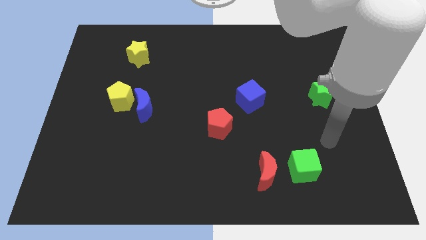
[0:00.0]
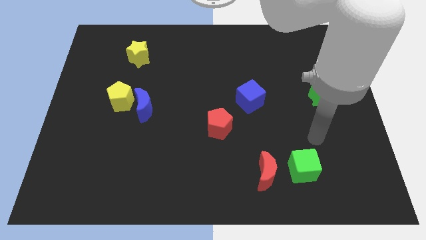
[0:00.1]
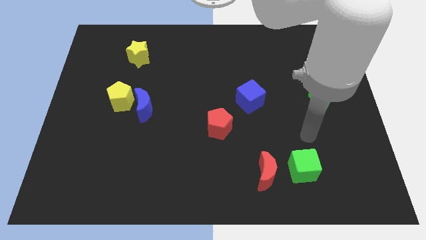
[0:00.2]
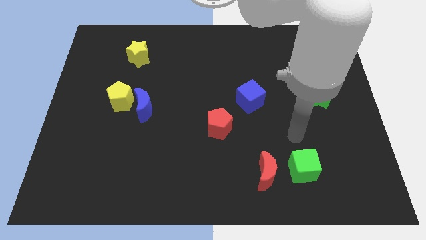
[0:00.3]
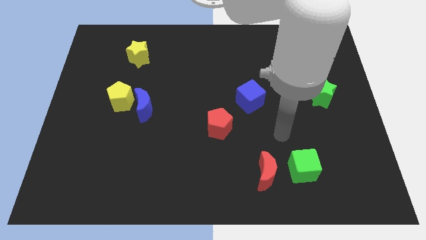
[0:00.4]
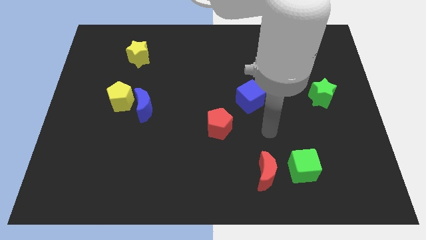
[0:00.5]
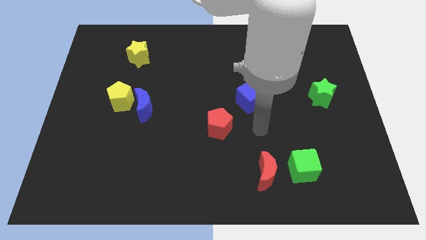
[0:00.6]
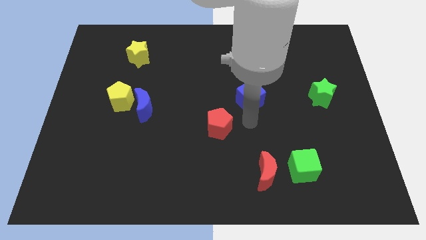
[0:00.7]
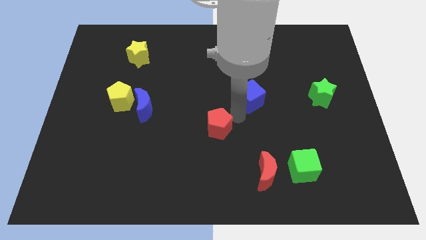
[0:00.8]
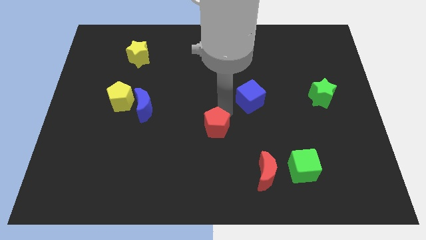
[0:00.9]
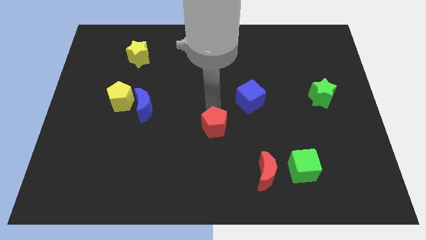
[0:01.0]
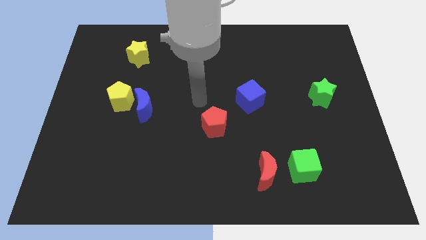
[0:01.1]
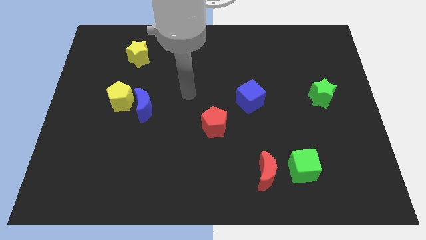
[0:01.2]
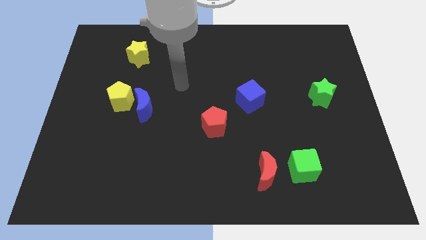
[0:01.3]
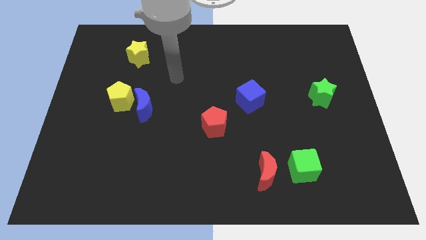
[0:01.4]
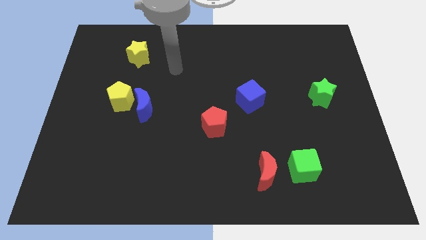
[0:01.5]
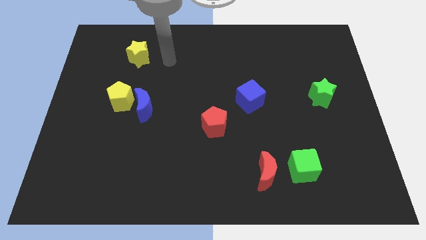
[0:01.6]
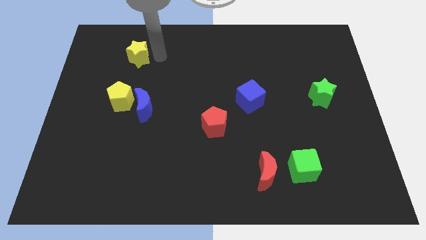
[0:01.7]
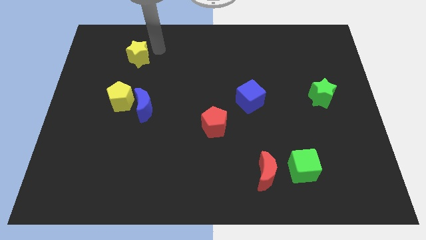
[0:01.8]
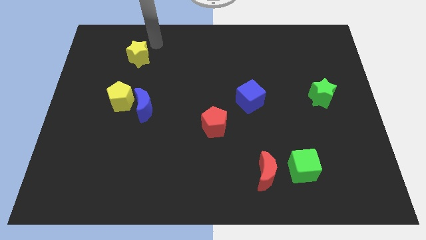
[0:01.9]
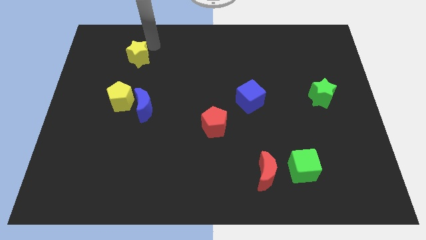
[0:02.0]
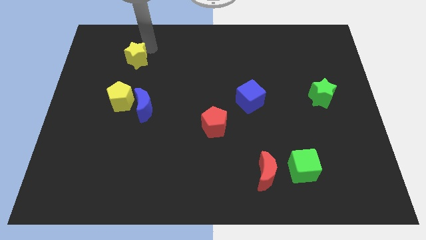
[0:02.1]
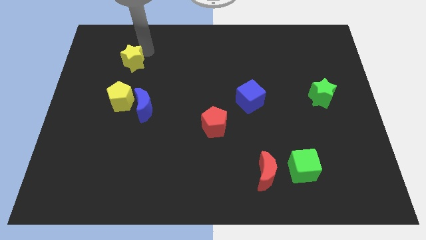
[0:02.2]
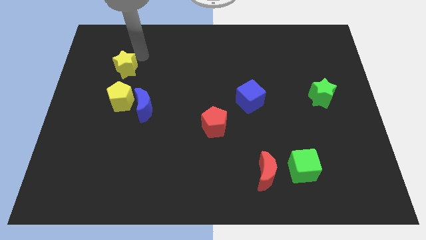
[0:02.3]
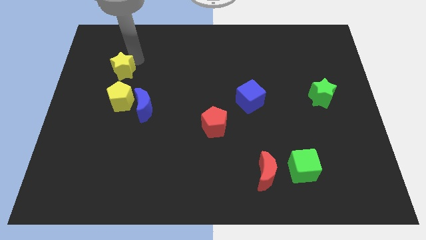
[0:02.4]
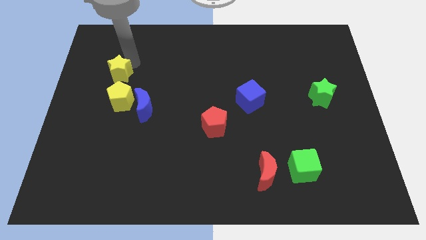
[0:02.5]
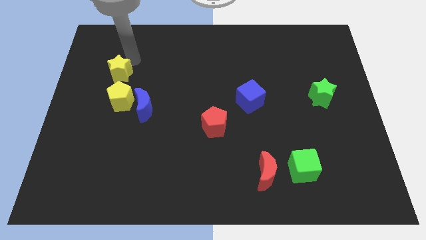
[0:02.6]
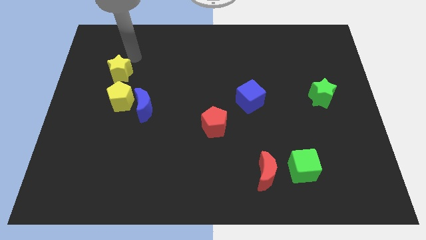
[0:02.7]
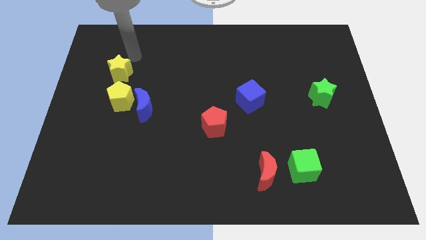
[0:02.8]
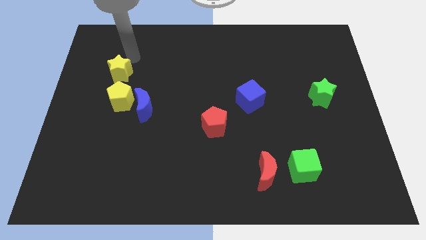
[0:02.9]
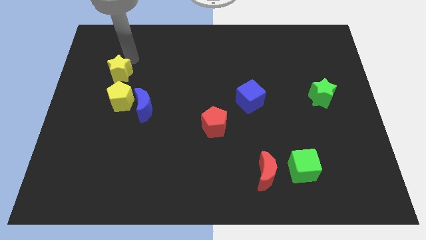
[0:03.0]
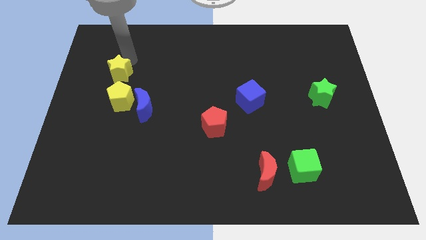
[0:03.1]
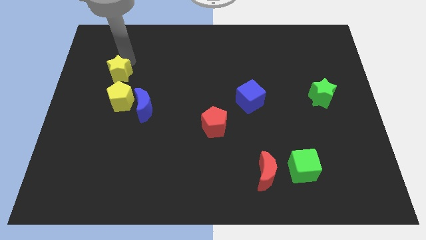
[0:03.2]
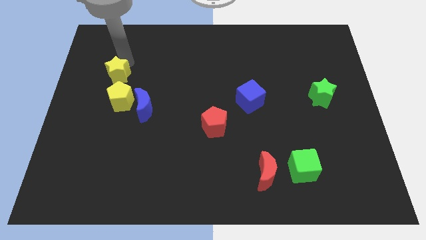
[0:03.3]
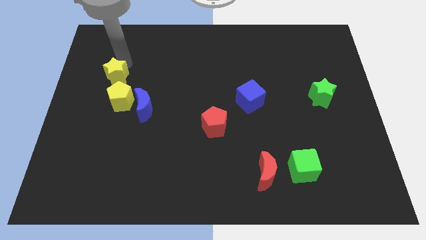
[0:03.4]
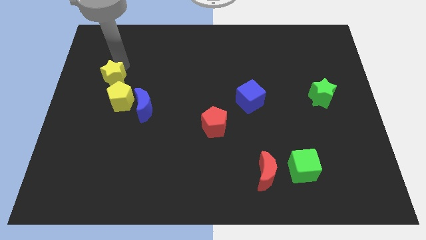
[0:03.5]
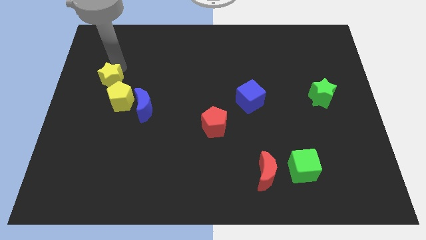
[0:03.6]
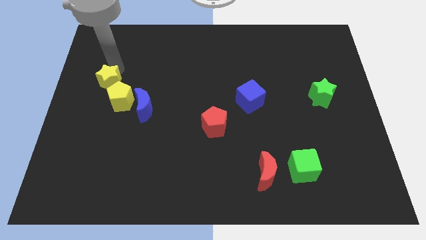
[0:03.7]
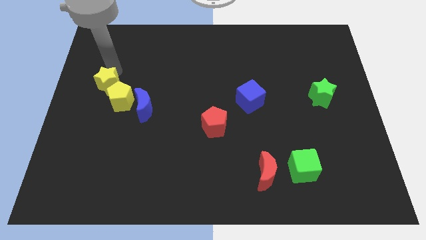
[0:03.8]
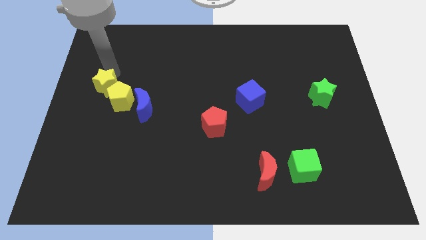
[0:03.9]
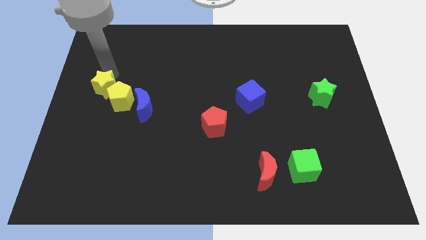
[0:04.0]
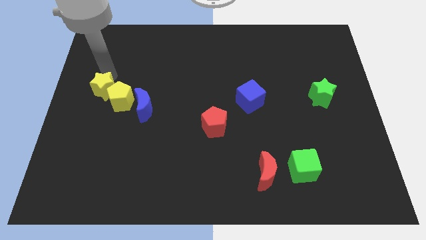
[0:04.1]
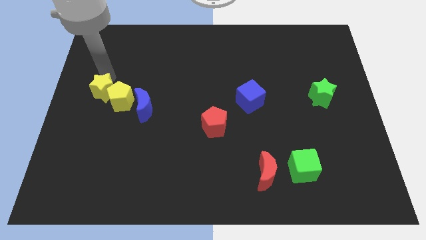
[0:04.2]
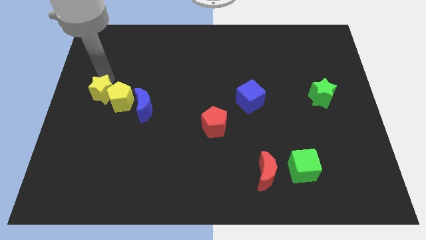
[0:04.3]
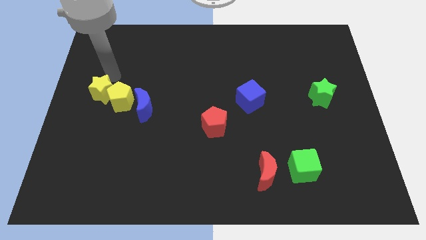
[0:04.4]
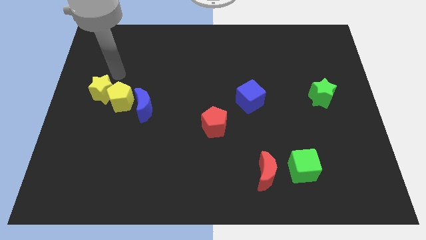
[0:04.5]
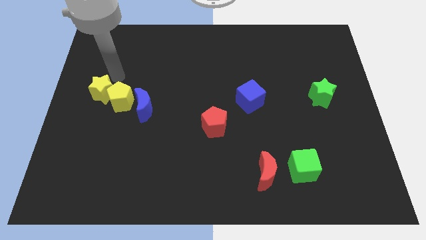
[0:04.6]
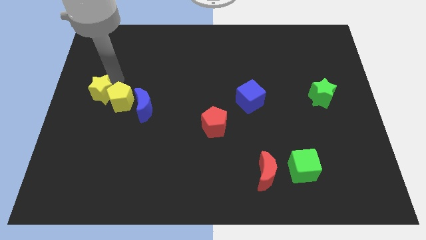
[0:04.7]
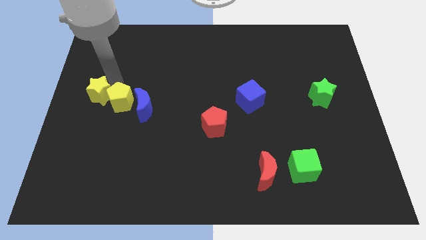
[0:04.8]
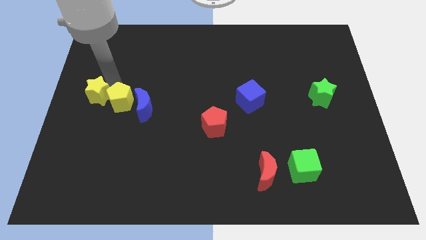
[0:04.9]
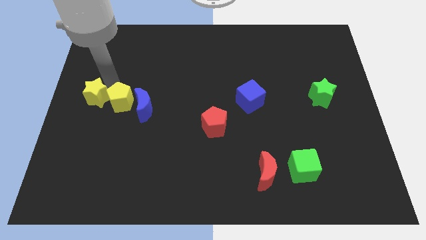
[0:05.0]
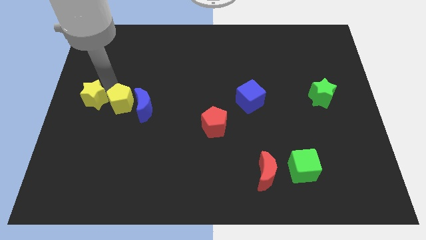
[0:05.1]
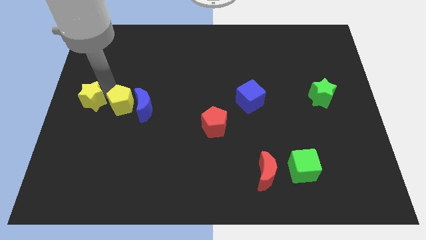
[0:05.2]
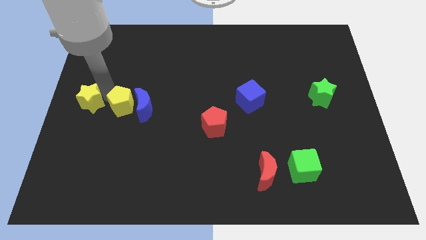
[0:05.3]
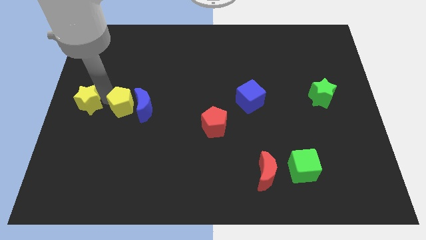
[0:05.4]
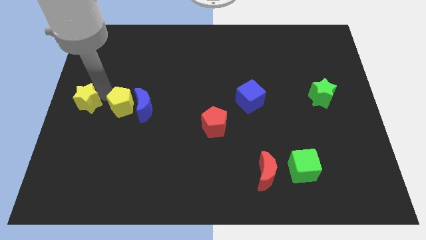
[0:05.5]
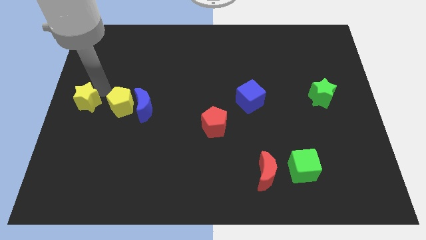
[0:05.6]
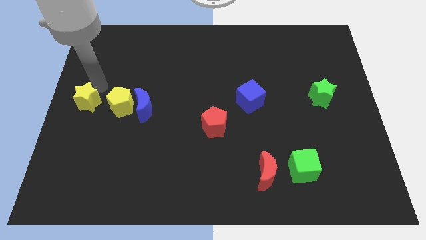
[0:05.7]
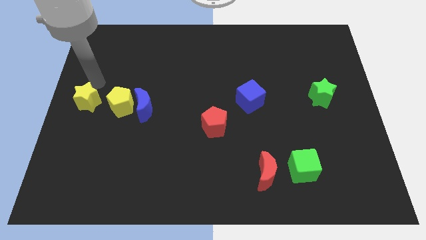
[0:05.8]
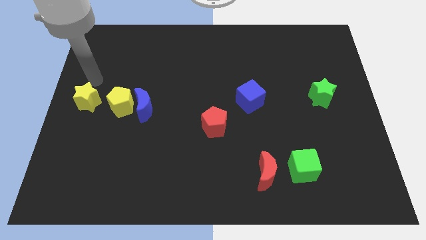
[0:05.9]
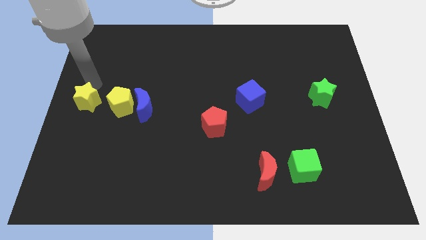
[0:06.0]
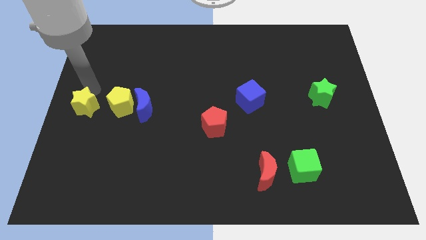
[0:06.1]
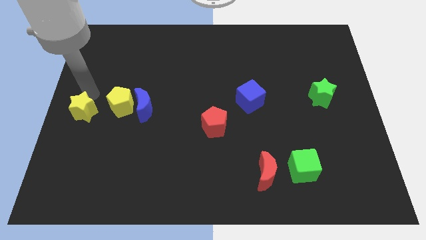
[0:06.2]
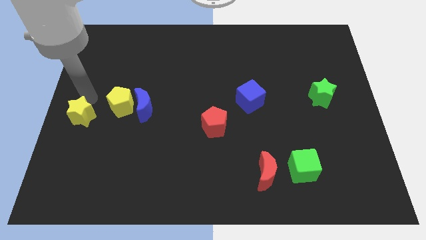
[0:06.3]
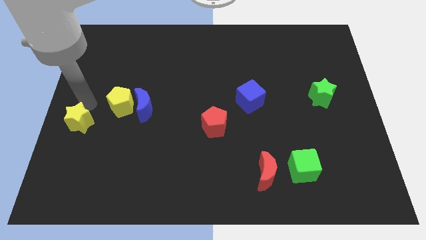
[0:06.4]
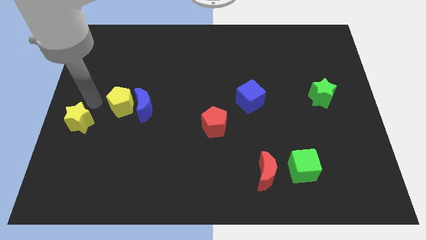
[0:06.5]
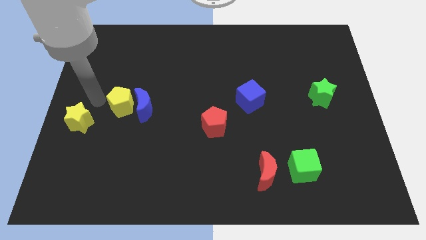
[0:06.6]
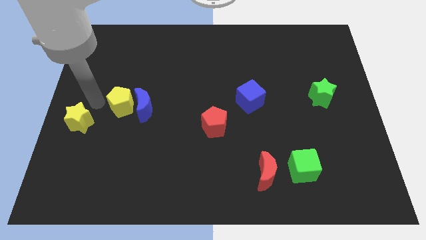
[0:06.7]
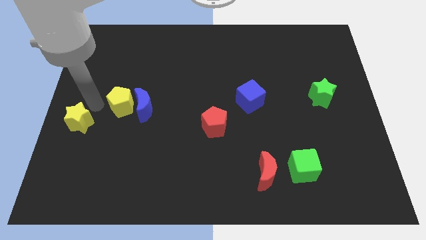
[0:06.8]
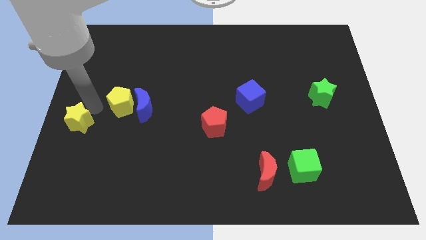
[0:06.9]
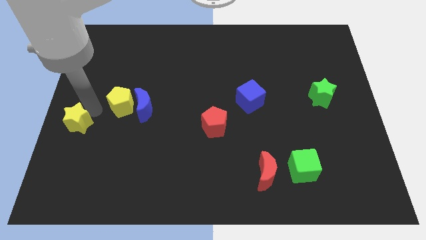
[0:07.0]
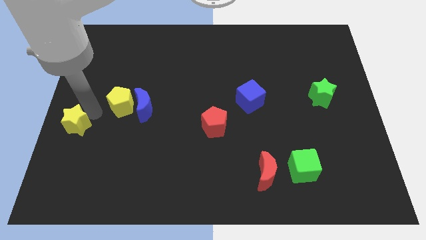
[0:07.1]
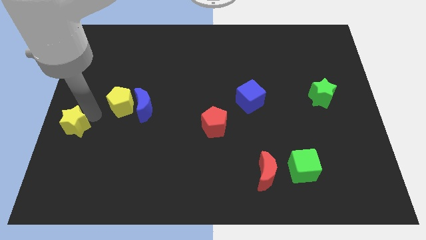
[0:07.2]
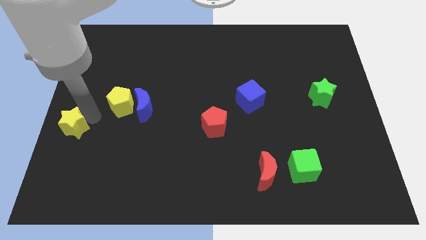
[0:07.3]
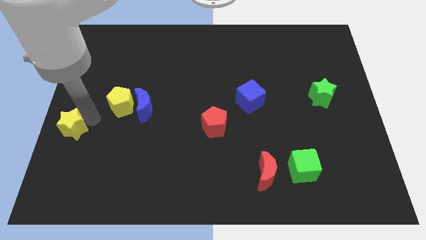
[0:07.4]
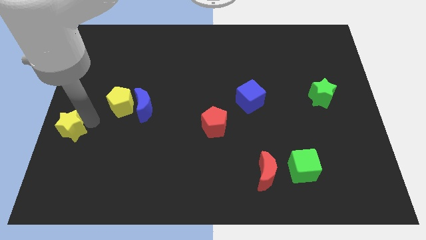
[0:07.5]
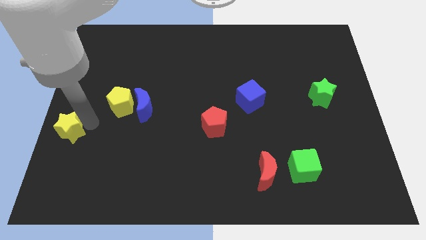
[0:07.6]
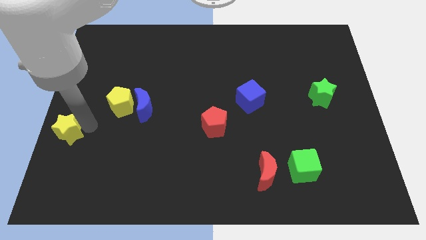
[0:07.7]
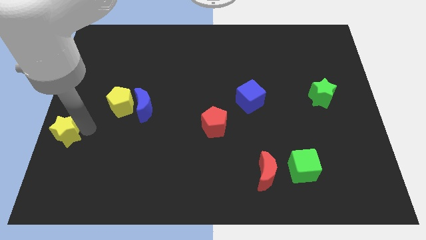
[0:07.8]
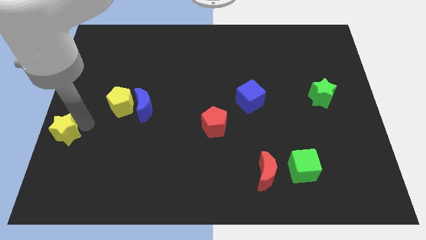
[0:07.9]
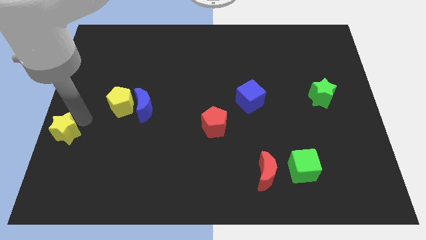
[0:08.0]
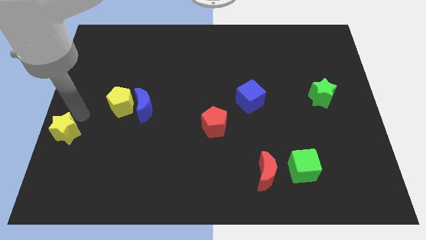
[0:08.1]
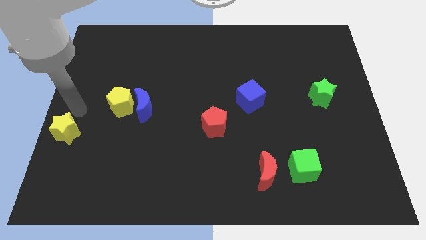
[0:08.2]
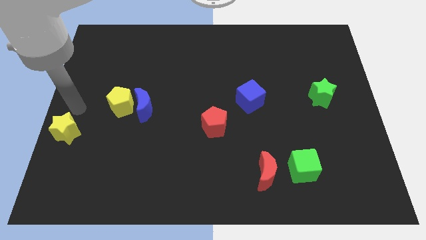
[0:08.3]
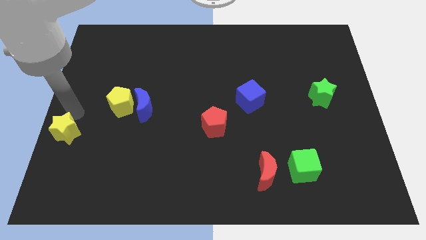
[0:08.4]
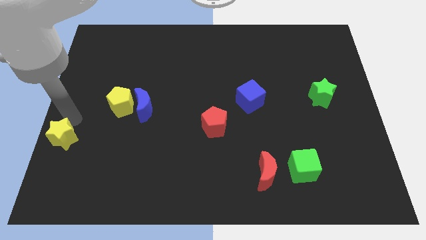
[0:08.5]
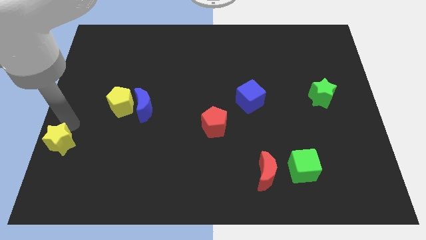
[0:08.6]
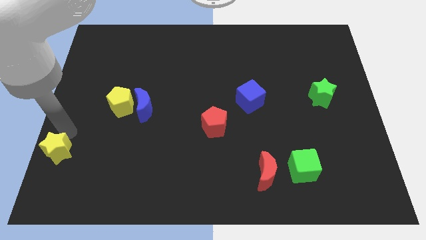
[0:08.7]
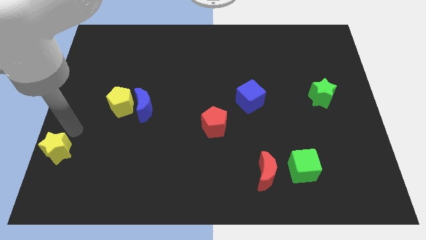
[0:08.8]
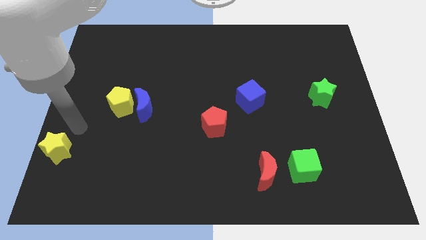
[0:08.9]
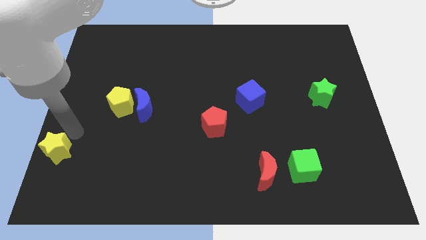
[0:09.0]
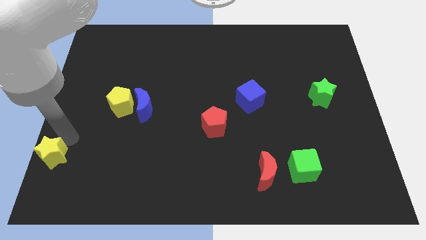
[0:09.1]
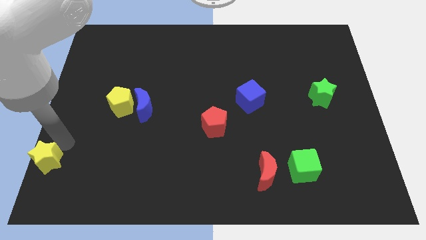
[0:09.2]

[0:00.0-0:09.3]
move the yellow star to the bottom left of the board
